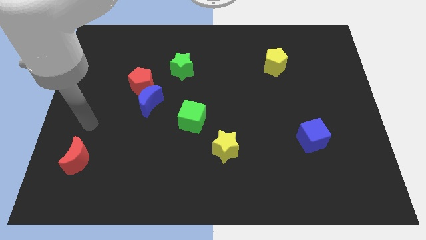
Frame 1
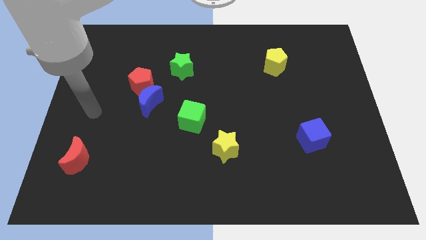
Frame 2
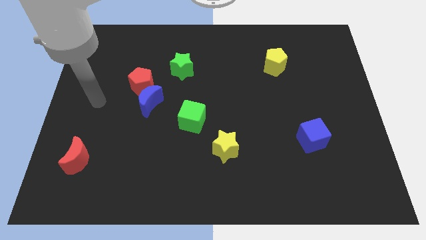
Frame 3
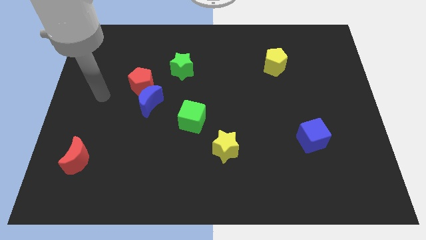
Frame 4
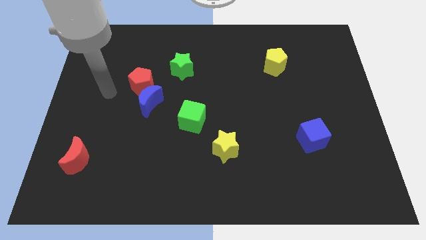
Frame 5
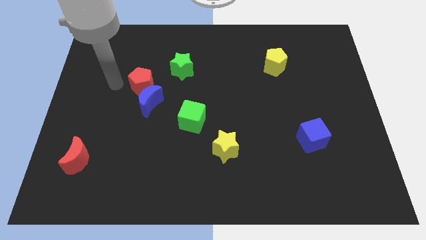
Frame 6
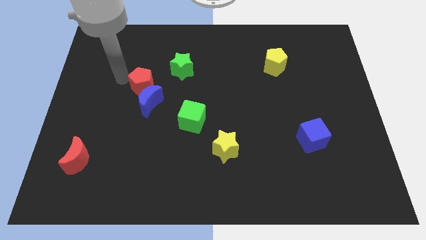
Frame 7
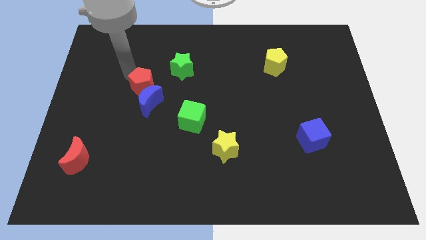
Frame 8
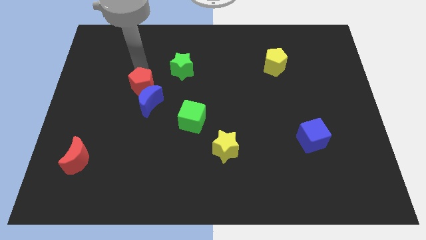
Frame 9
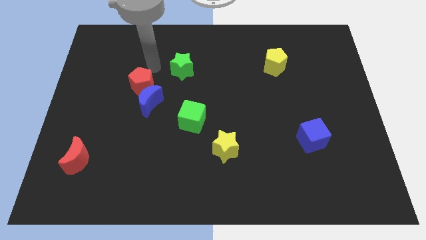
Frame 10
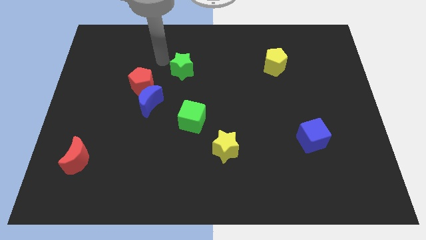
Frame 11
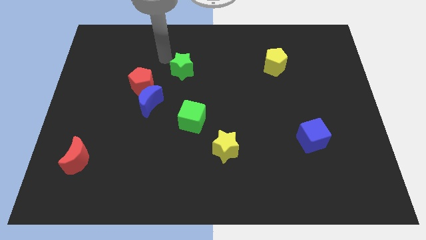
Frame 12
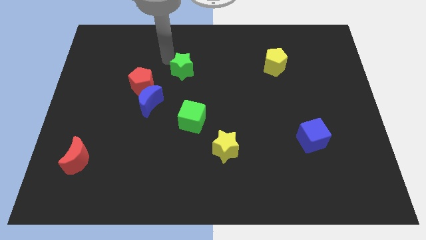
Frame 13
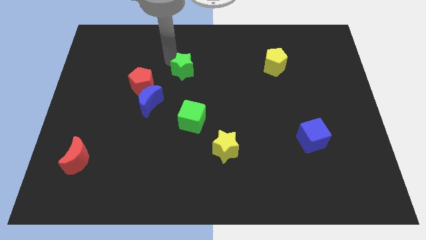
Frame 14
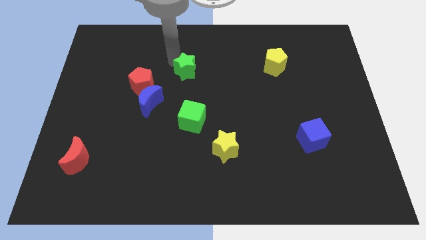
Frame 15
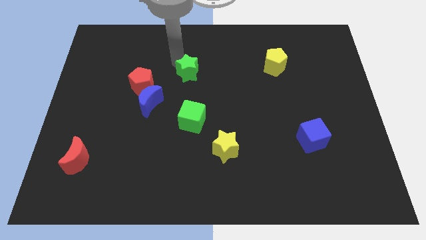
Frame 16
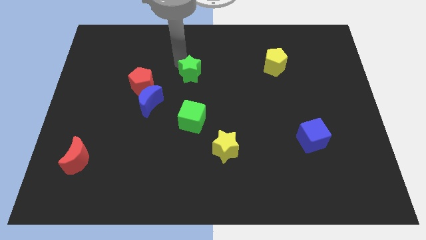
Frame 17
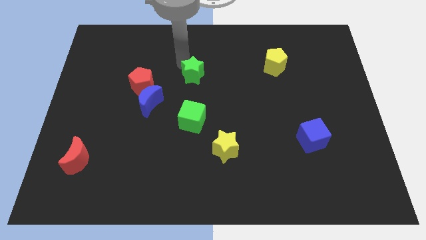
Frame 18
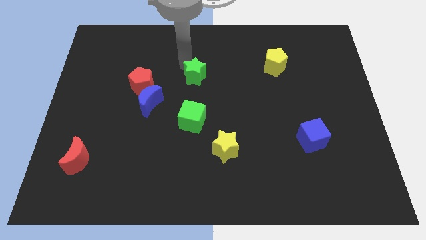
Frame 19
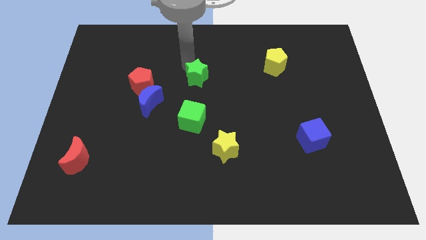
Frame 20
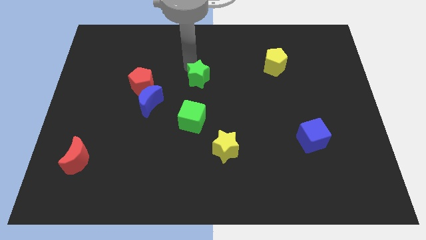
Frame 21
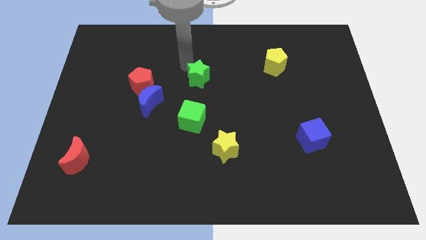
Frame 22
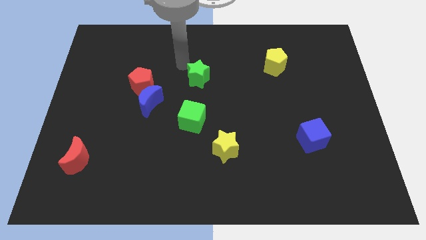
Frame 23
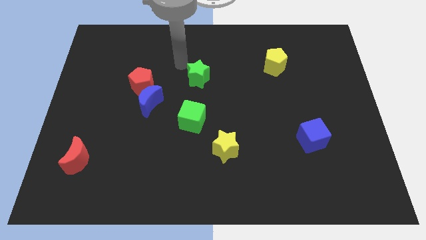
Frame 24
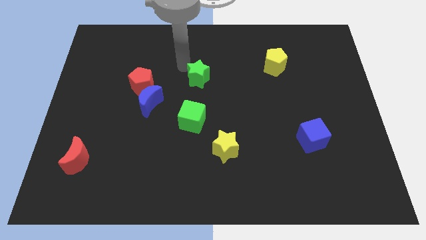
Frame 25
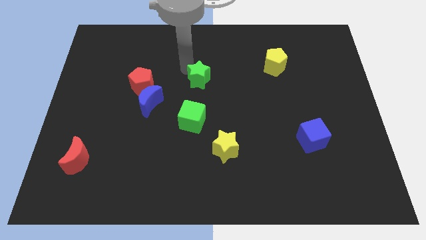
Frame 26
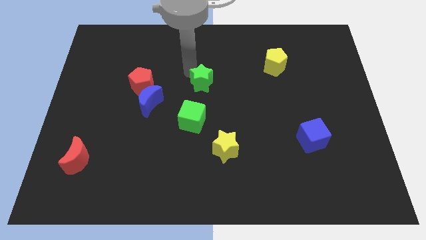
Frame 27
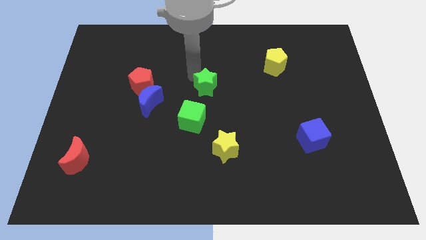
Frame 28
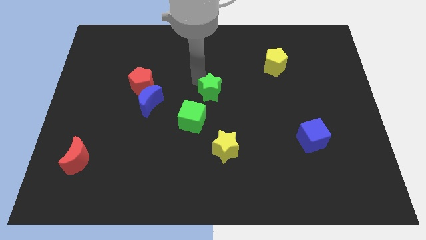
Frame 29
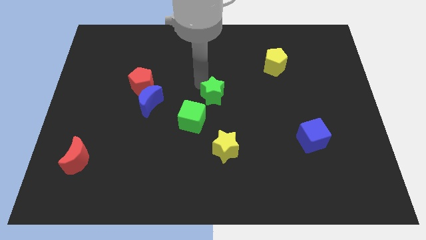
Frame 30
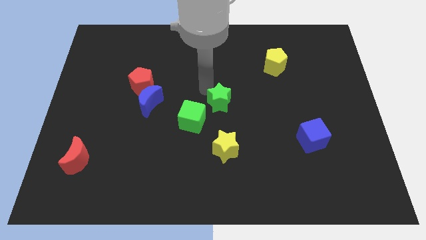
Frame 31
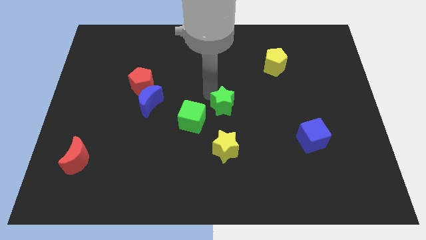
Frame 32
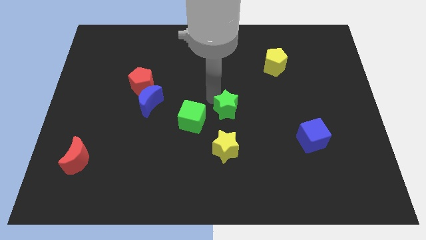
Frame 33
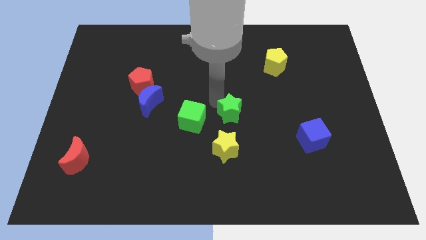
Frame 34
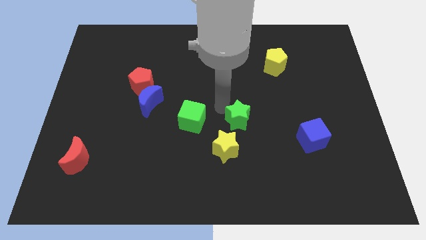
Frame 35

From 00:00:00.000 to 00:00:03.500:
move the green star diagonally downwards and to the right

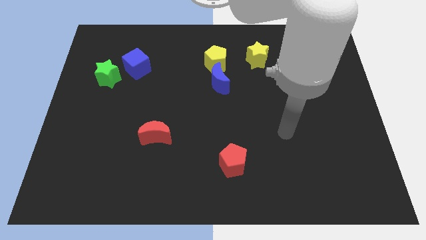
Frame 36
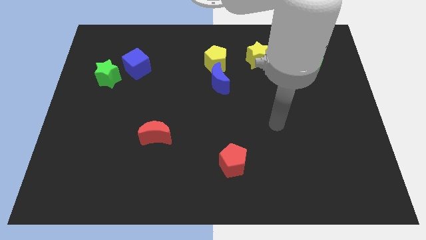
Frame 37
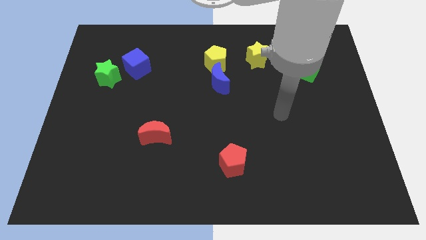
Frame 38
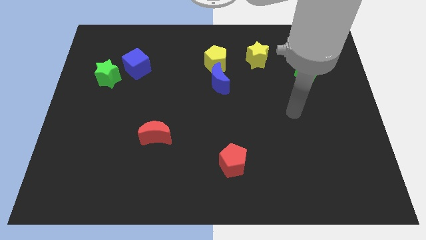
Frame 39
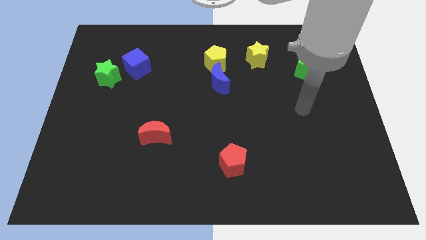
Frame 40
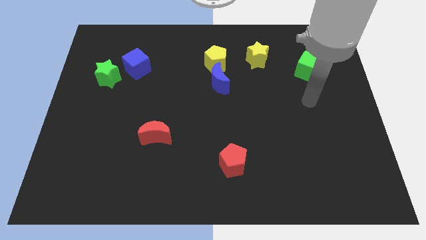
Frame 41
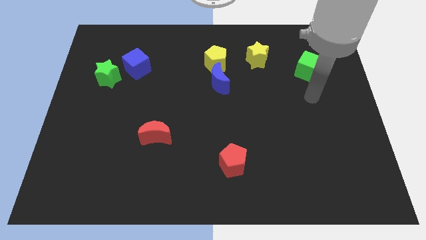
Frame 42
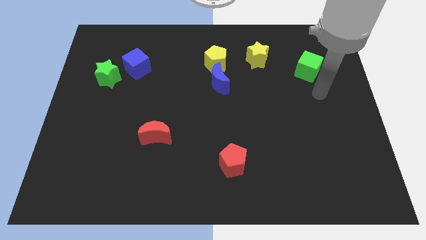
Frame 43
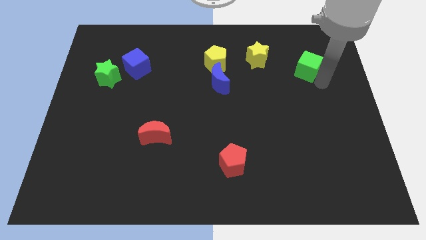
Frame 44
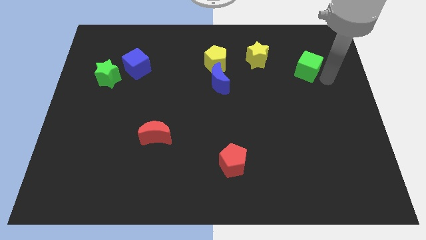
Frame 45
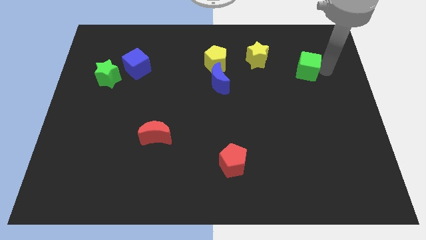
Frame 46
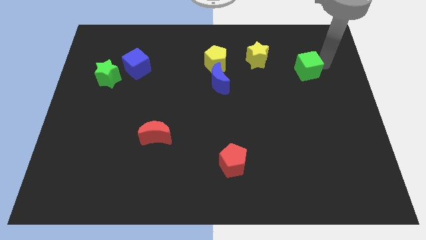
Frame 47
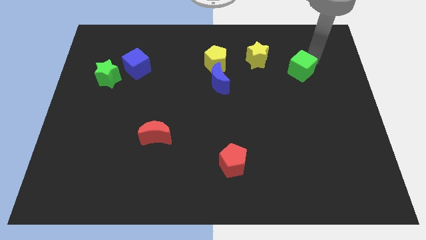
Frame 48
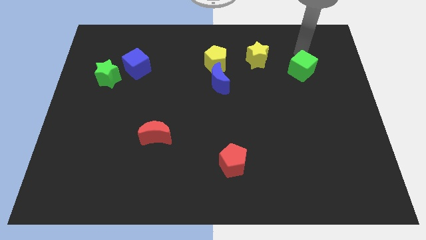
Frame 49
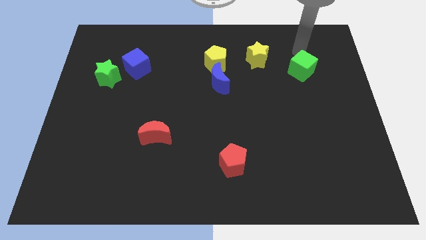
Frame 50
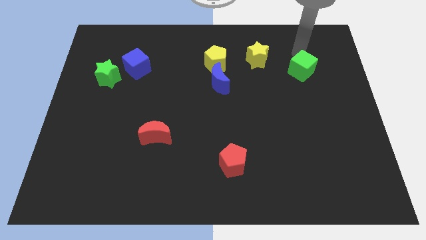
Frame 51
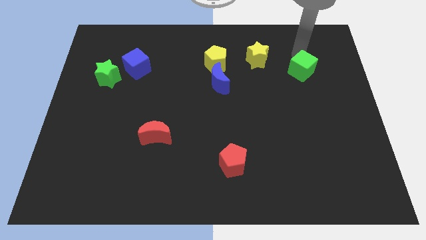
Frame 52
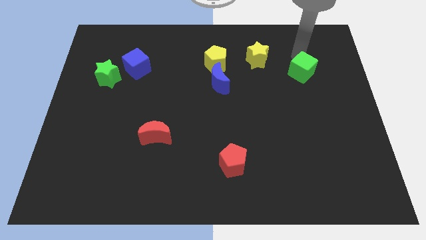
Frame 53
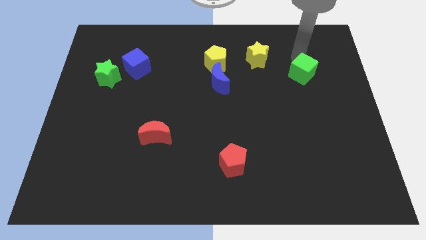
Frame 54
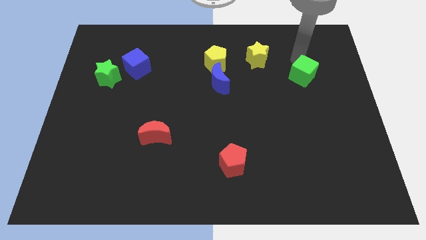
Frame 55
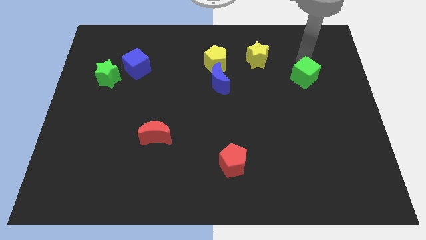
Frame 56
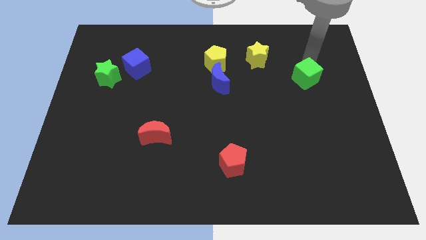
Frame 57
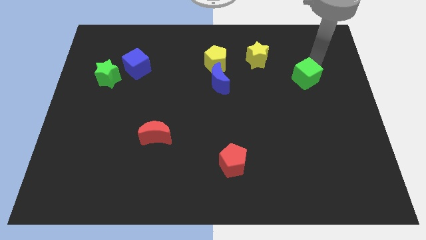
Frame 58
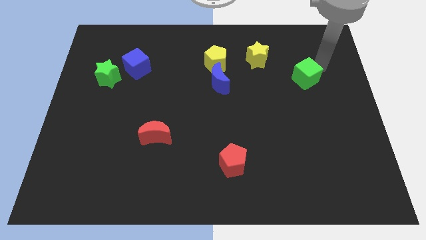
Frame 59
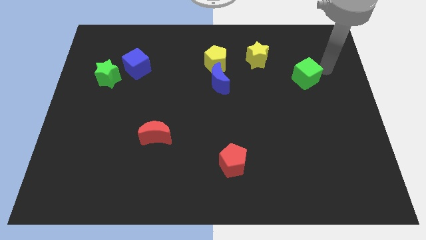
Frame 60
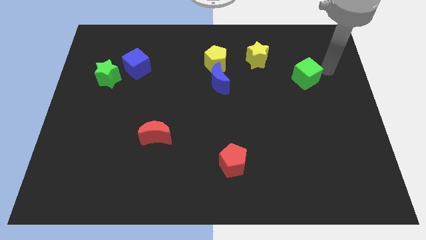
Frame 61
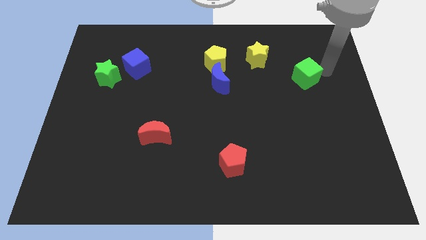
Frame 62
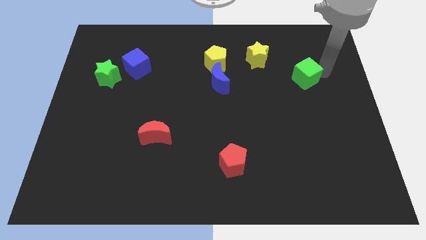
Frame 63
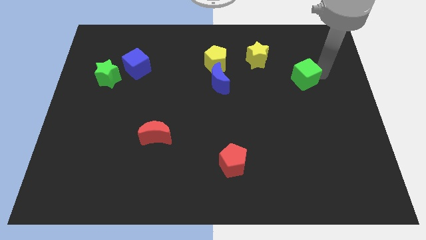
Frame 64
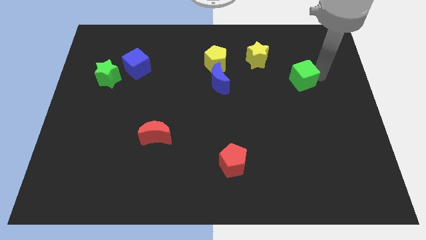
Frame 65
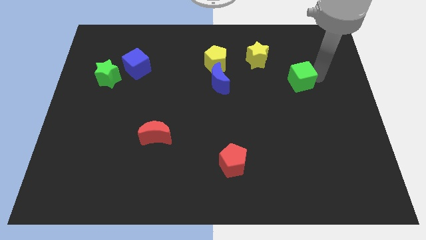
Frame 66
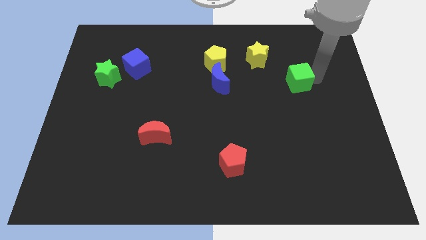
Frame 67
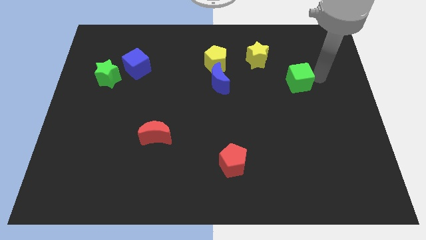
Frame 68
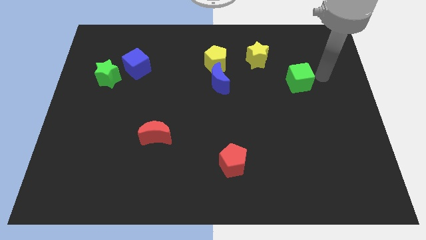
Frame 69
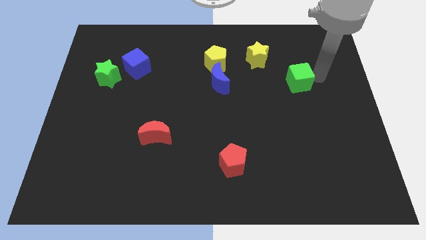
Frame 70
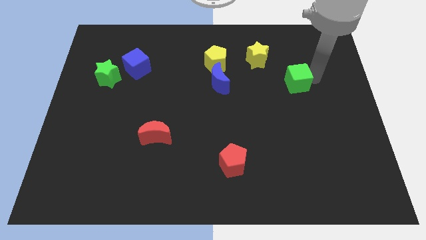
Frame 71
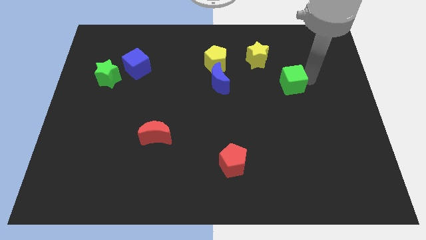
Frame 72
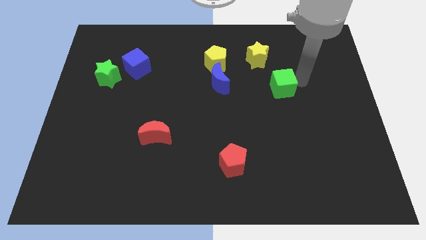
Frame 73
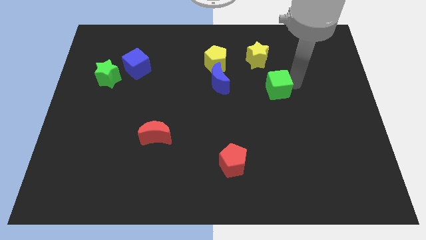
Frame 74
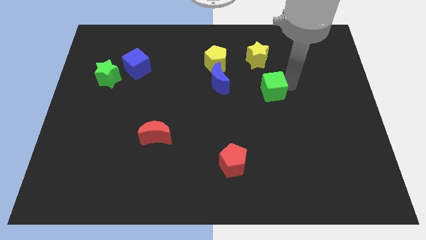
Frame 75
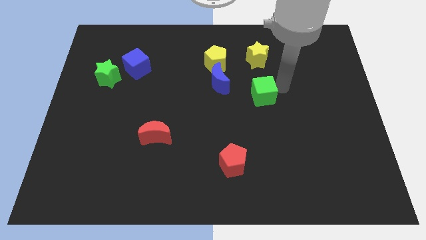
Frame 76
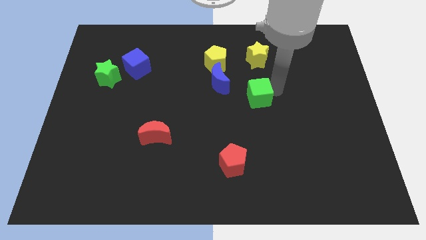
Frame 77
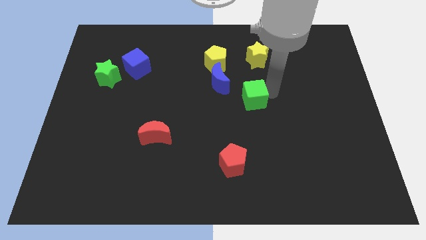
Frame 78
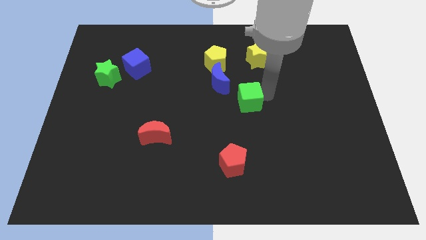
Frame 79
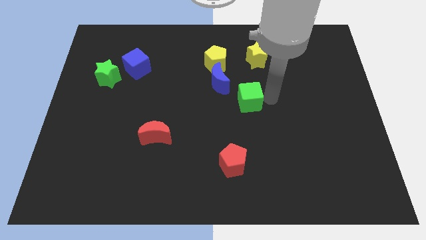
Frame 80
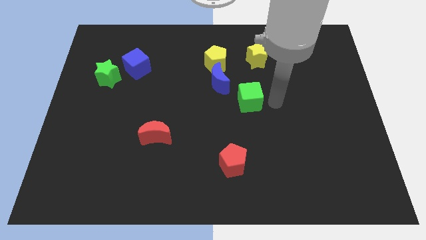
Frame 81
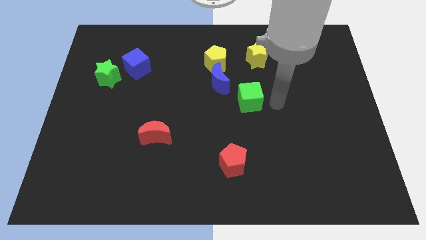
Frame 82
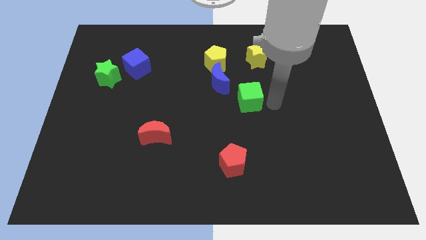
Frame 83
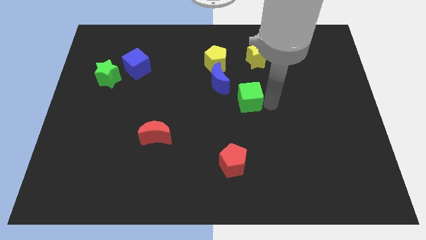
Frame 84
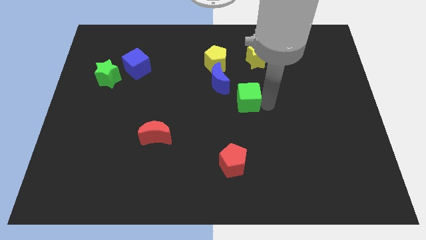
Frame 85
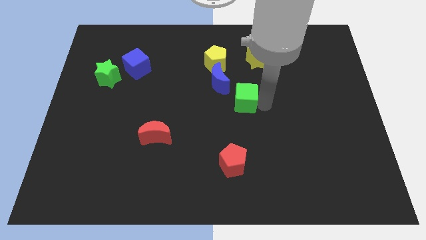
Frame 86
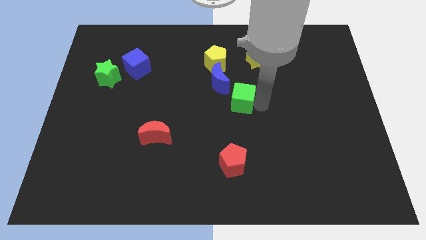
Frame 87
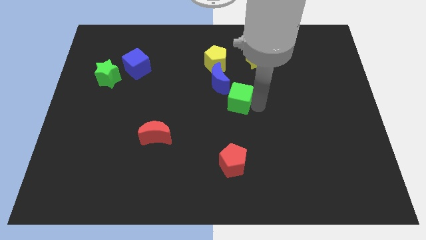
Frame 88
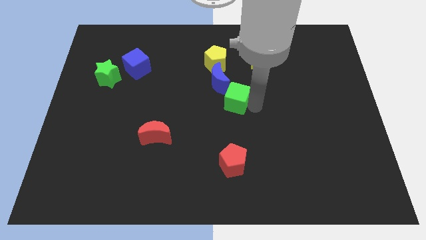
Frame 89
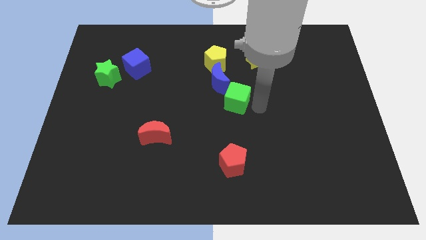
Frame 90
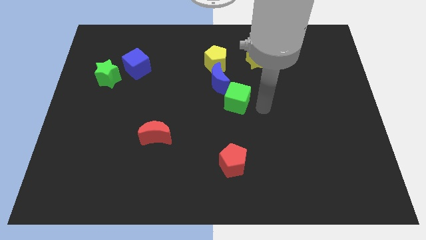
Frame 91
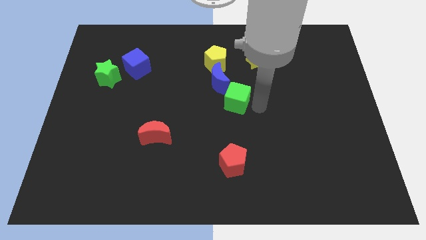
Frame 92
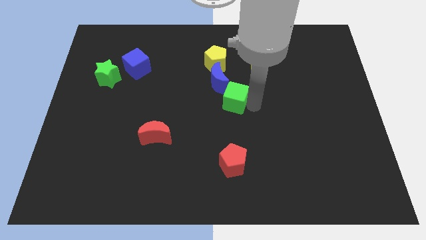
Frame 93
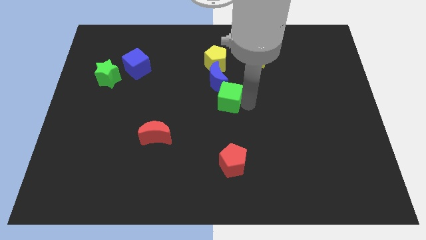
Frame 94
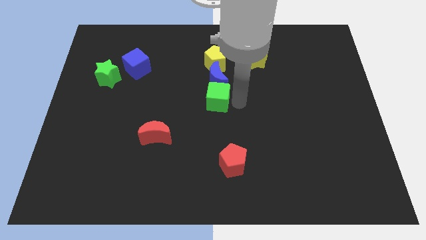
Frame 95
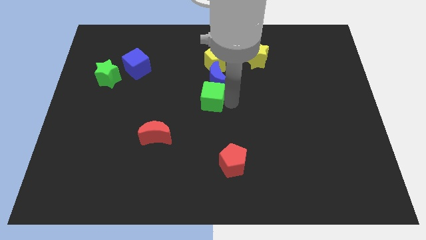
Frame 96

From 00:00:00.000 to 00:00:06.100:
push the green cube to the left
